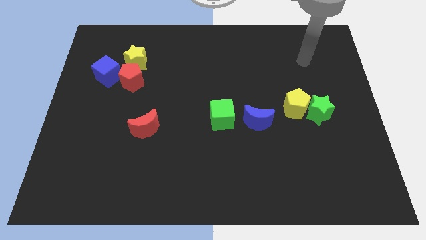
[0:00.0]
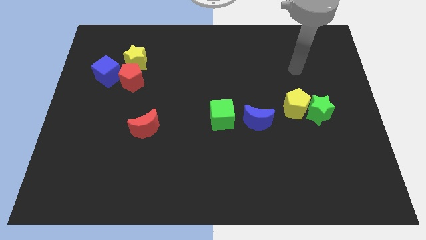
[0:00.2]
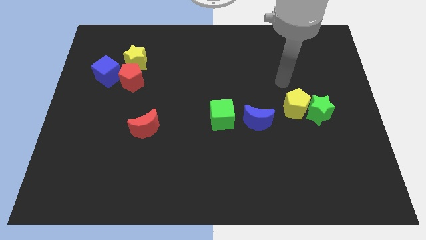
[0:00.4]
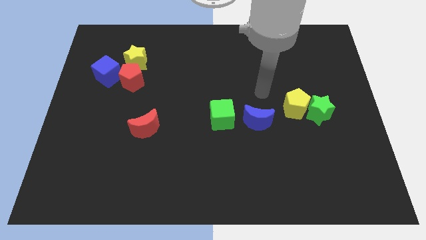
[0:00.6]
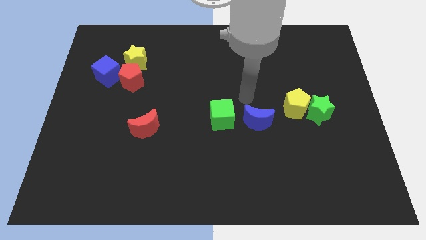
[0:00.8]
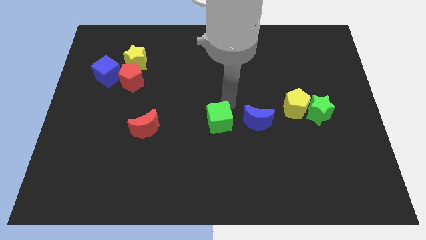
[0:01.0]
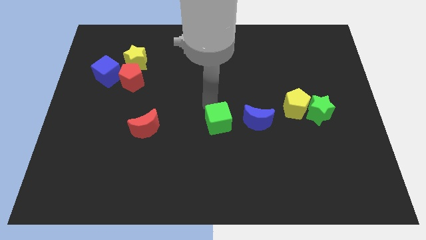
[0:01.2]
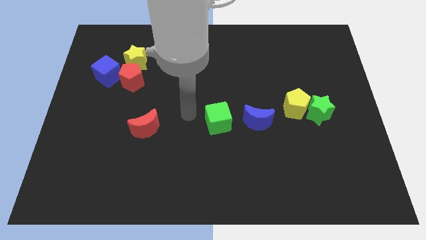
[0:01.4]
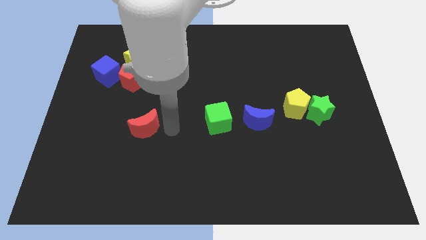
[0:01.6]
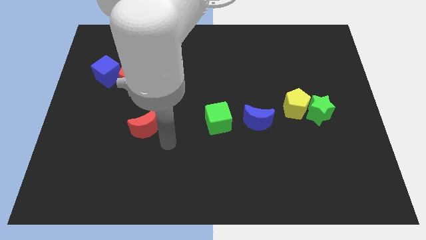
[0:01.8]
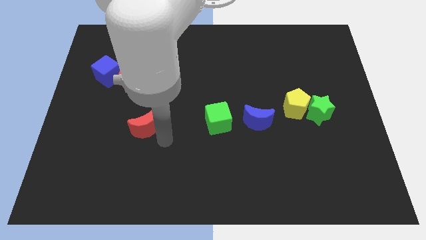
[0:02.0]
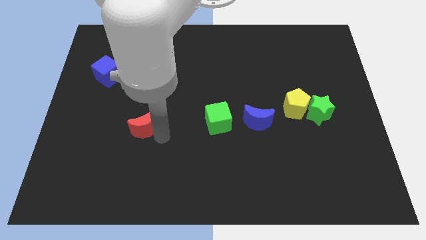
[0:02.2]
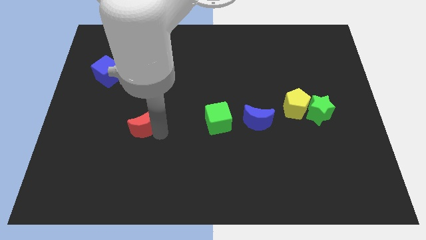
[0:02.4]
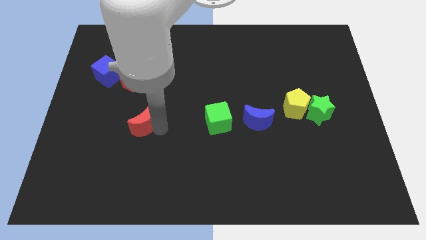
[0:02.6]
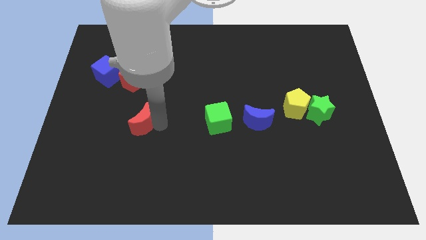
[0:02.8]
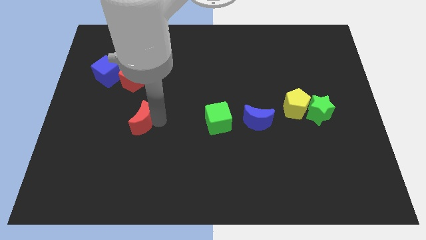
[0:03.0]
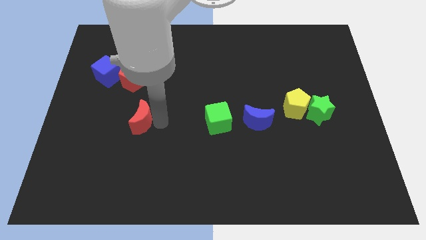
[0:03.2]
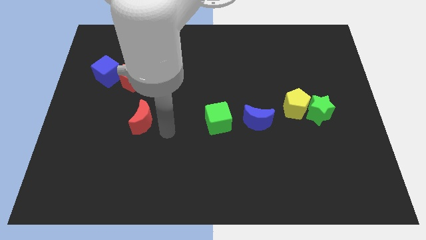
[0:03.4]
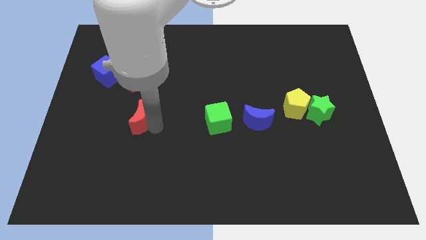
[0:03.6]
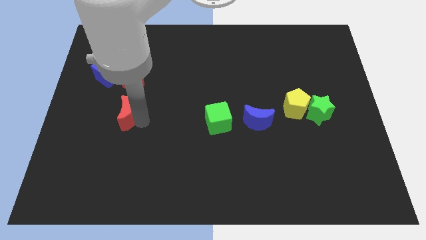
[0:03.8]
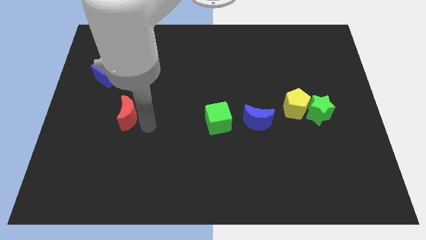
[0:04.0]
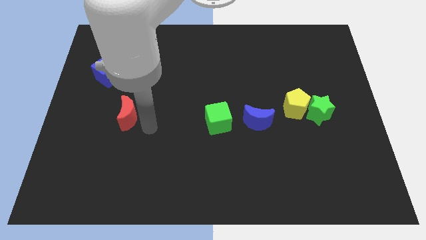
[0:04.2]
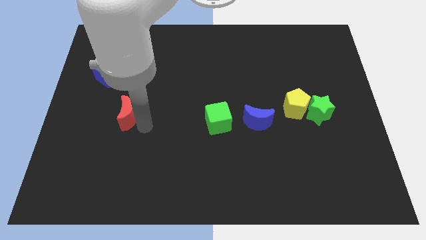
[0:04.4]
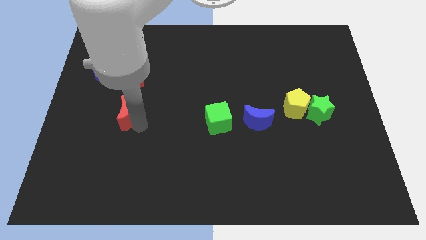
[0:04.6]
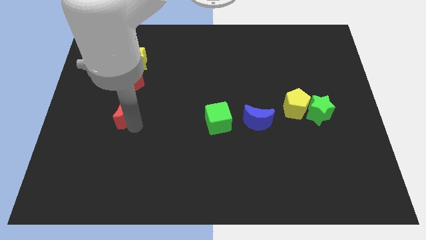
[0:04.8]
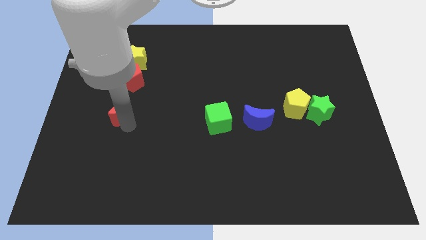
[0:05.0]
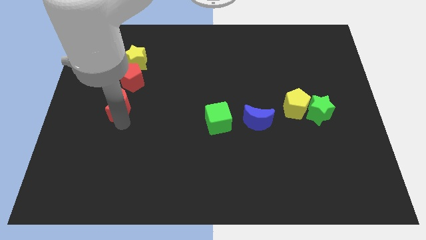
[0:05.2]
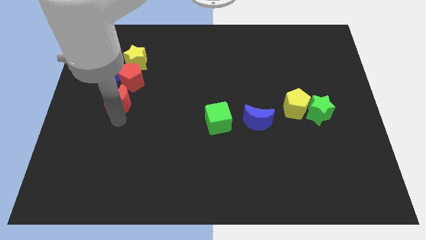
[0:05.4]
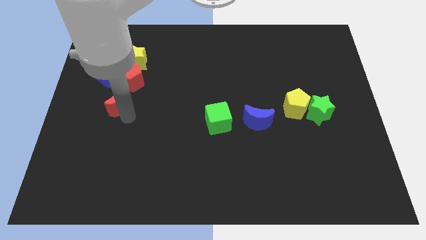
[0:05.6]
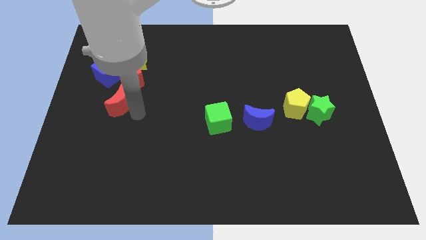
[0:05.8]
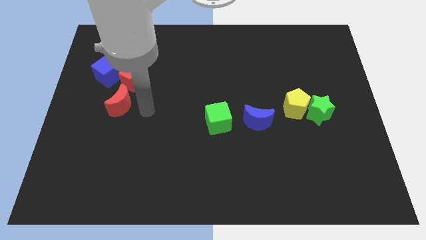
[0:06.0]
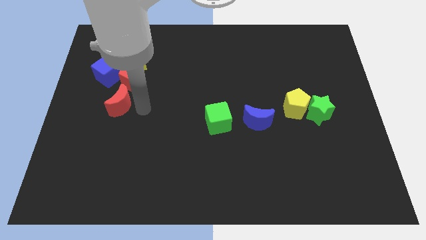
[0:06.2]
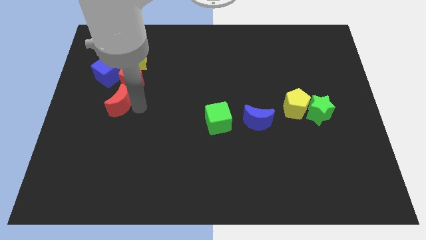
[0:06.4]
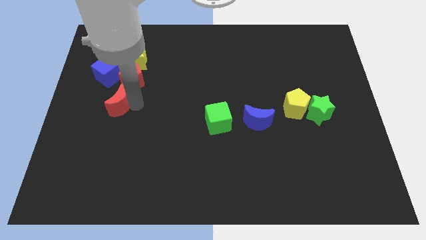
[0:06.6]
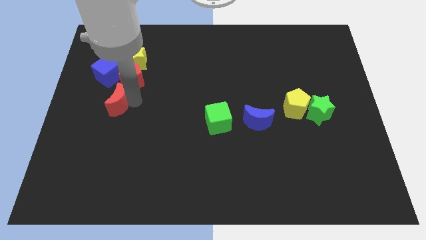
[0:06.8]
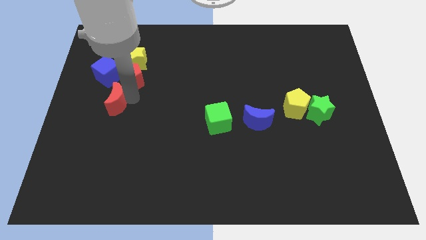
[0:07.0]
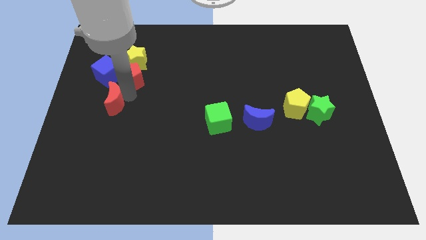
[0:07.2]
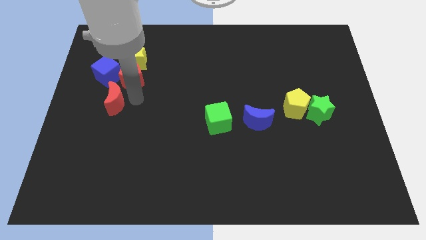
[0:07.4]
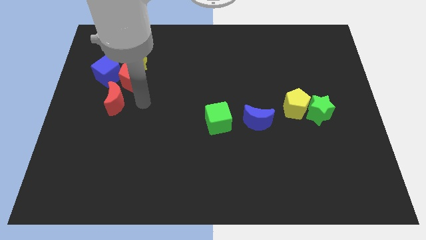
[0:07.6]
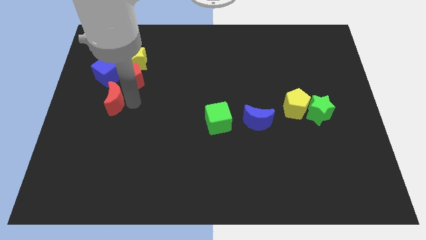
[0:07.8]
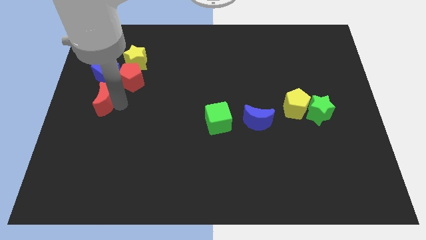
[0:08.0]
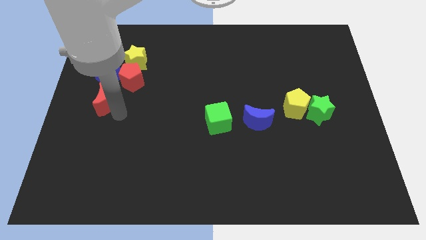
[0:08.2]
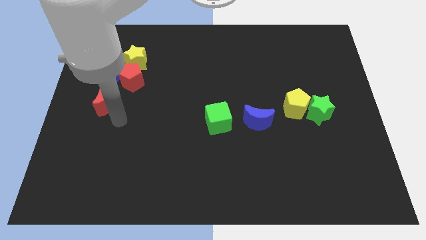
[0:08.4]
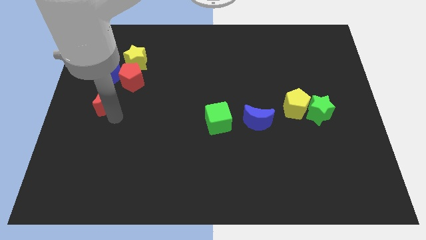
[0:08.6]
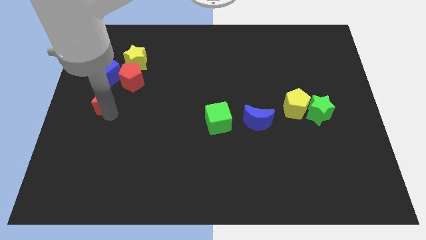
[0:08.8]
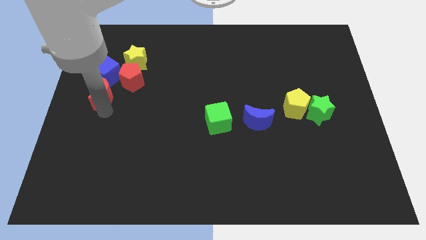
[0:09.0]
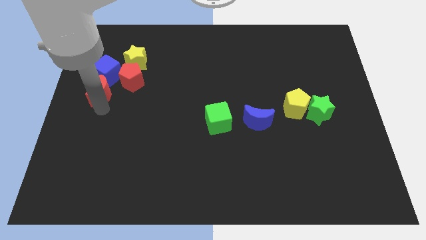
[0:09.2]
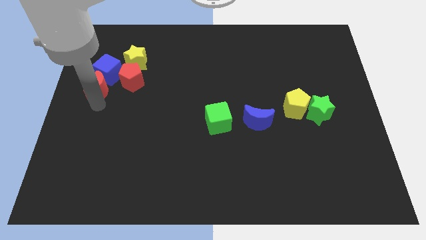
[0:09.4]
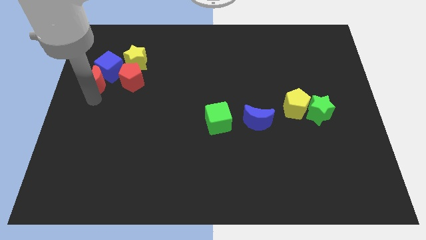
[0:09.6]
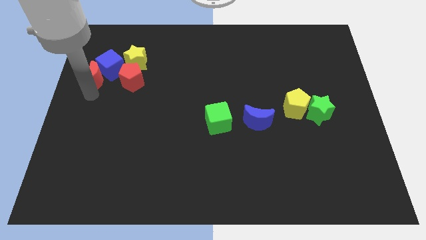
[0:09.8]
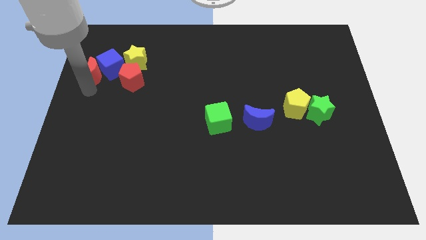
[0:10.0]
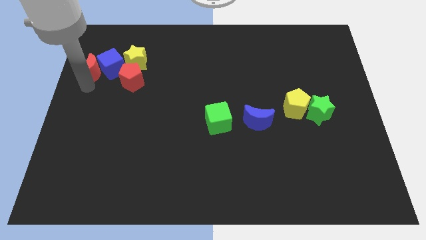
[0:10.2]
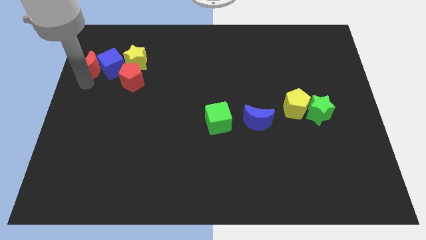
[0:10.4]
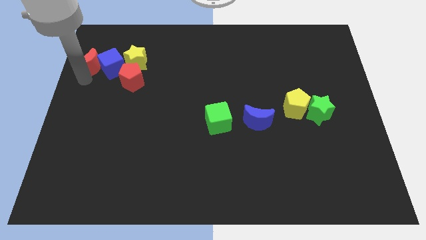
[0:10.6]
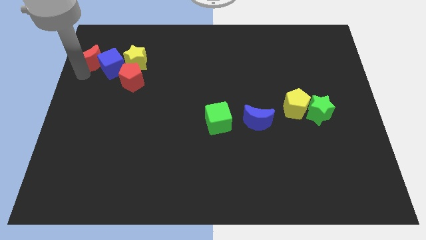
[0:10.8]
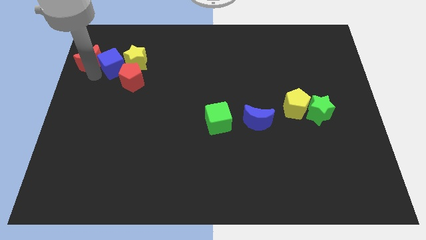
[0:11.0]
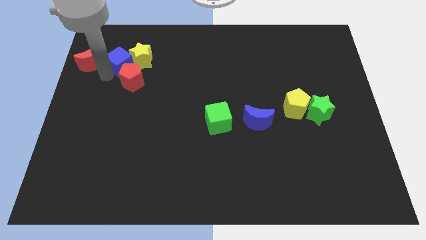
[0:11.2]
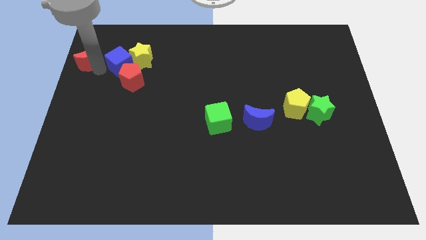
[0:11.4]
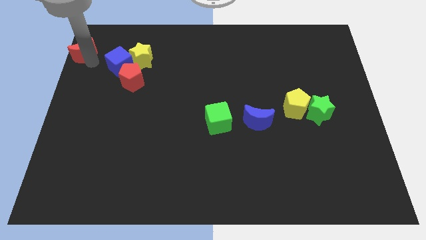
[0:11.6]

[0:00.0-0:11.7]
push the red moon to the upper left corner
